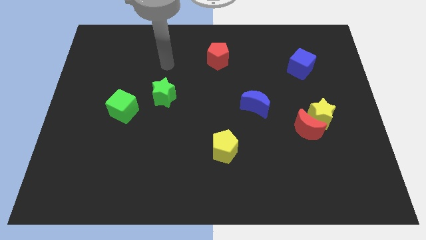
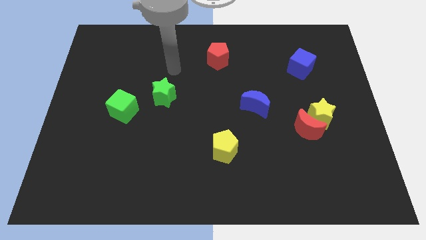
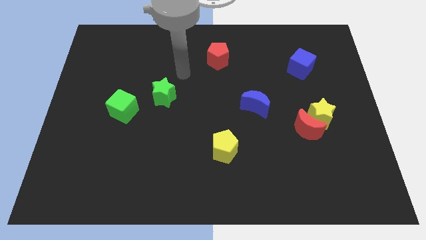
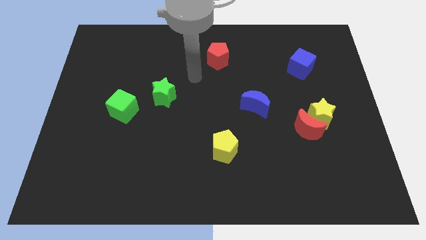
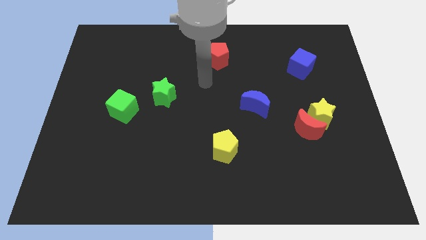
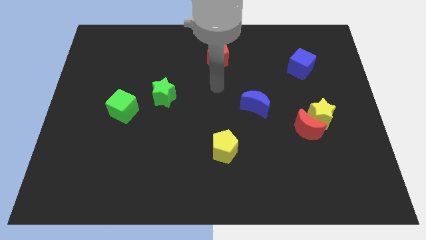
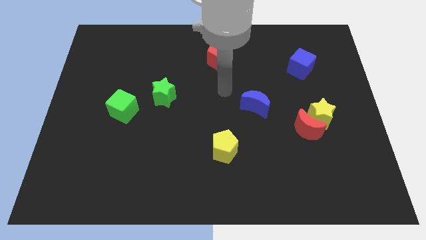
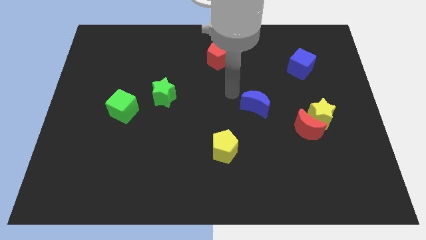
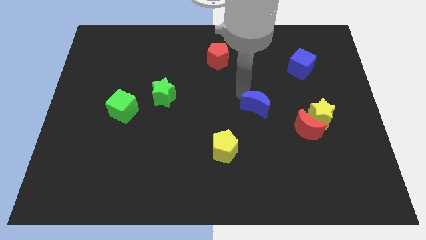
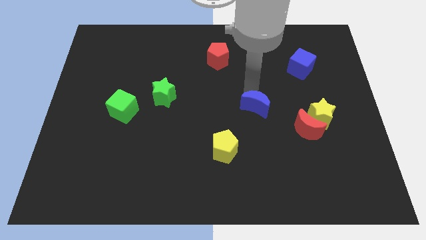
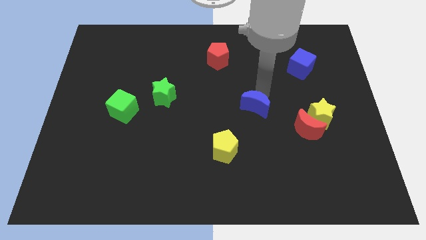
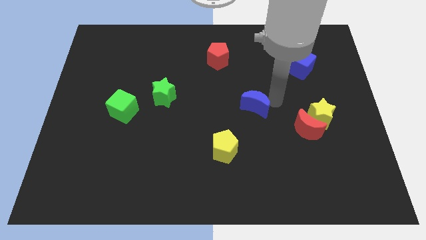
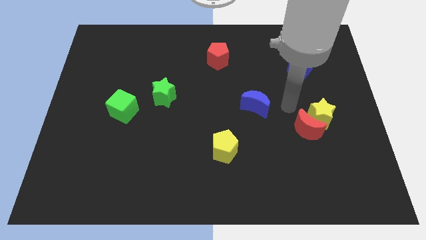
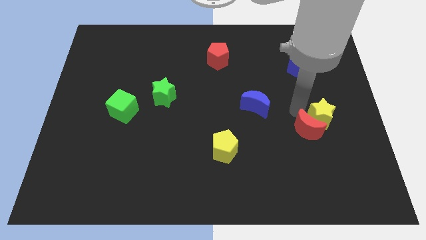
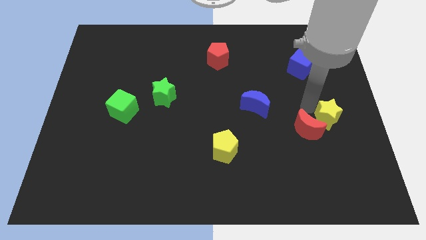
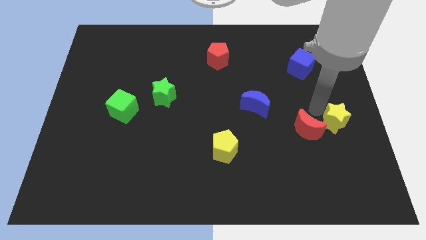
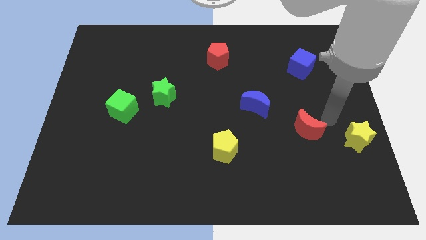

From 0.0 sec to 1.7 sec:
move the red moon away from the yellow star

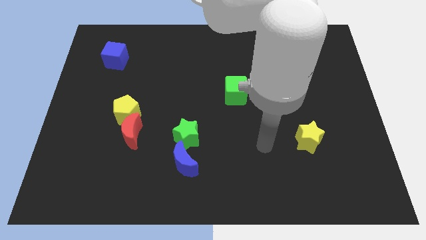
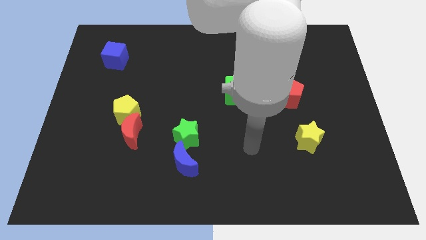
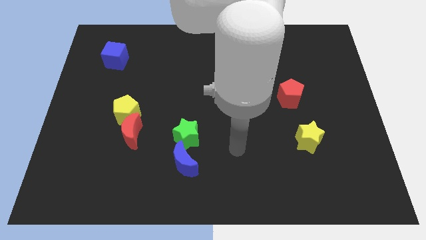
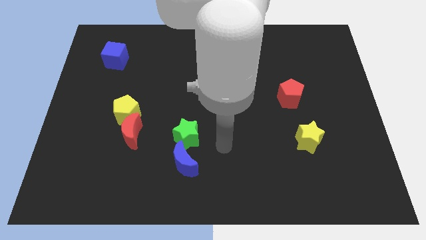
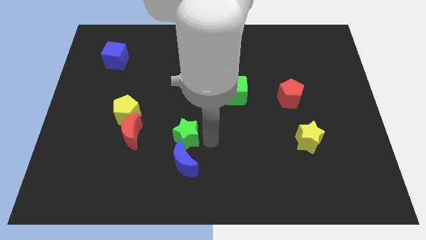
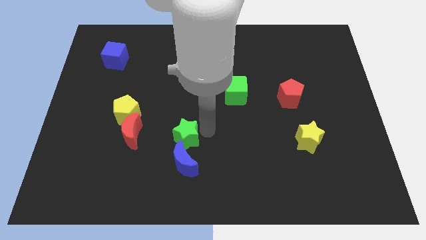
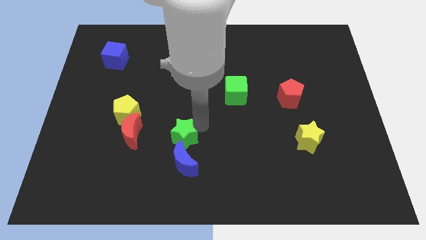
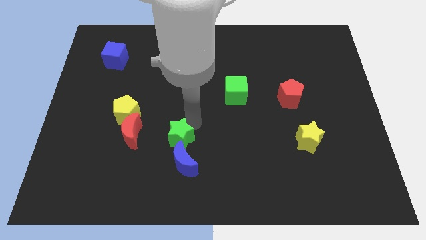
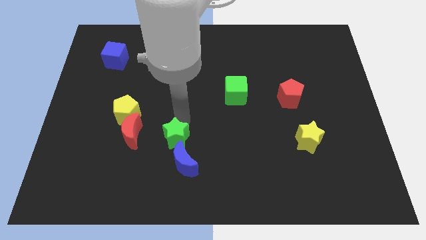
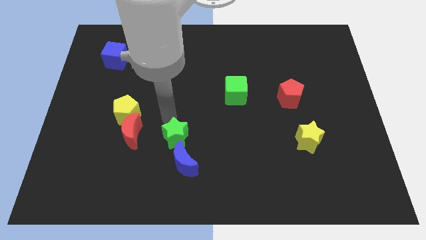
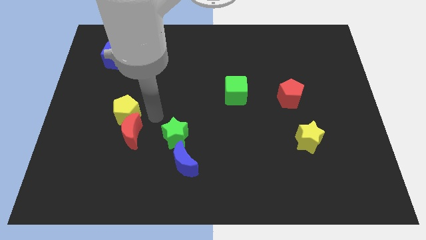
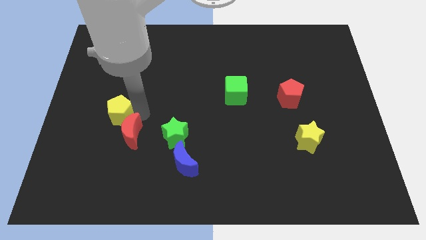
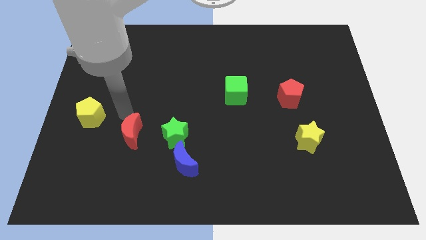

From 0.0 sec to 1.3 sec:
pull the red moon apart from the yellow pentagon

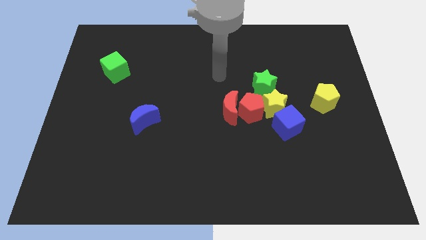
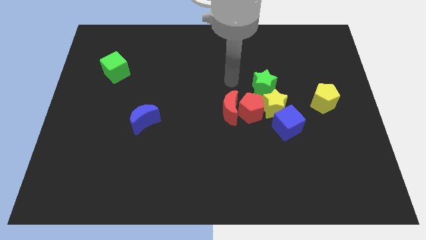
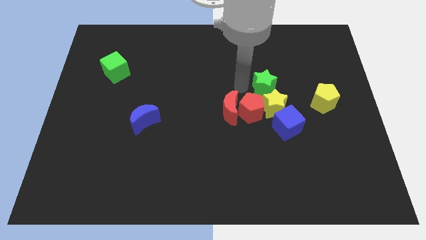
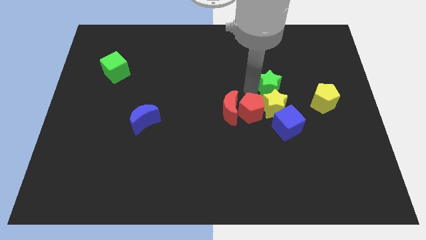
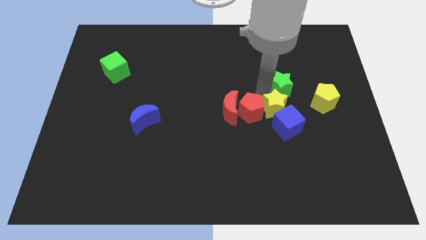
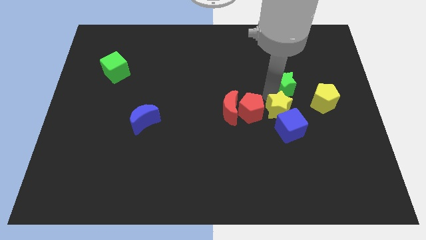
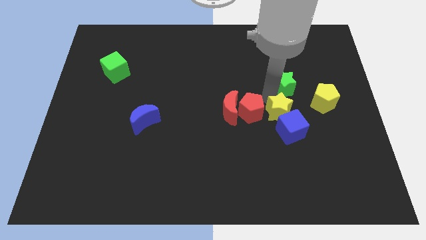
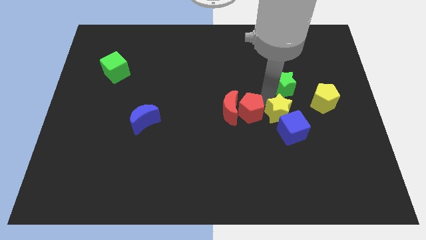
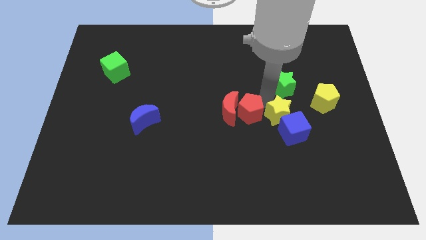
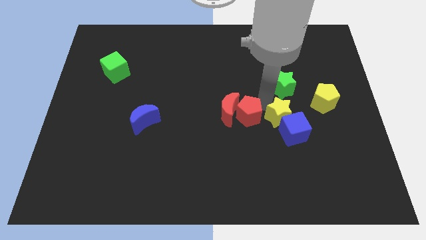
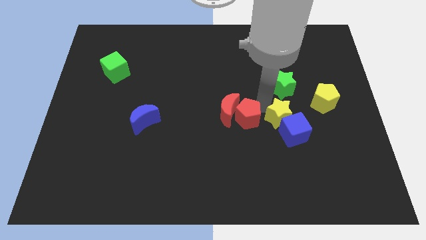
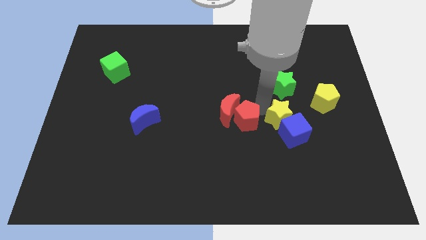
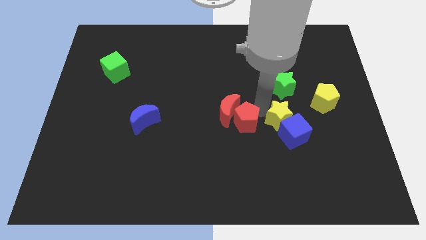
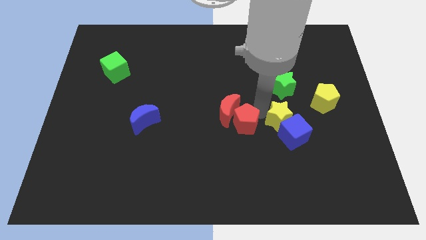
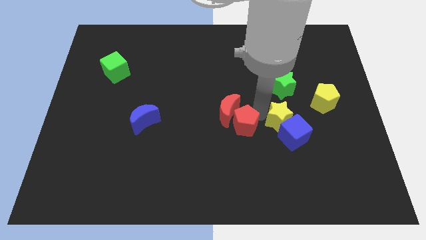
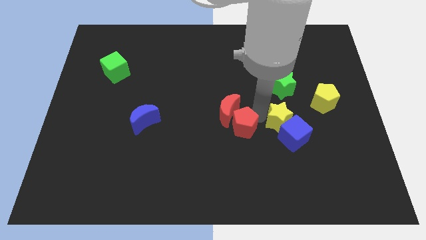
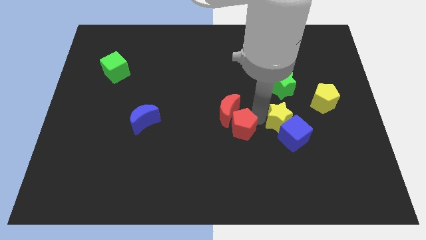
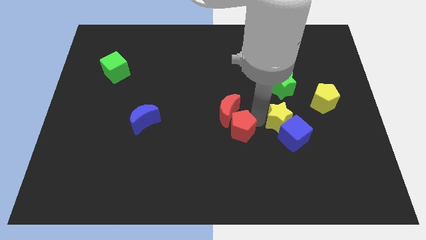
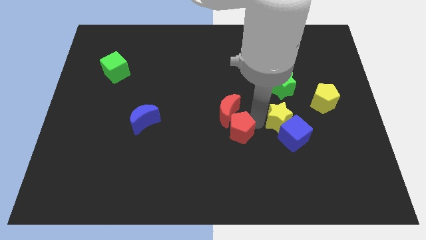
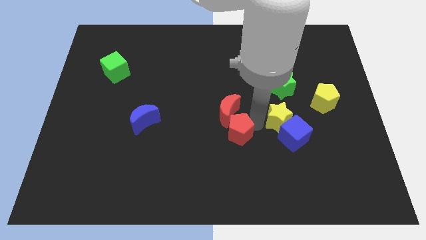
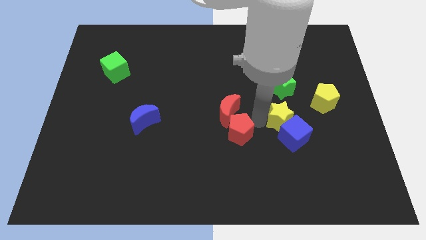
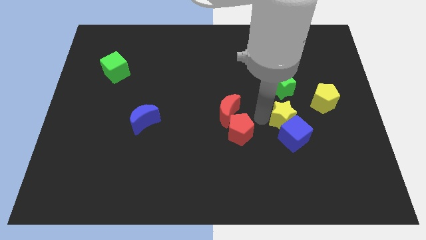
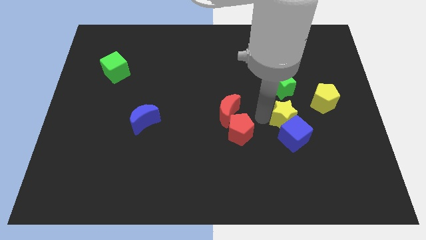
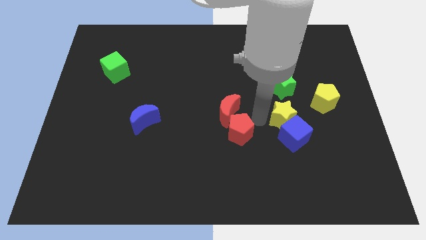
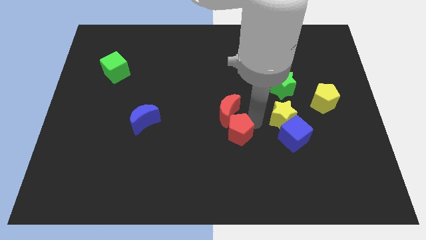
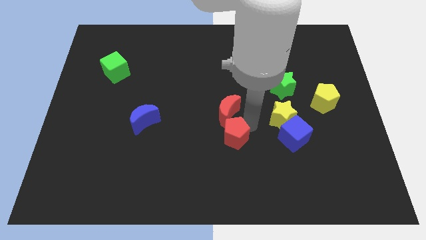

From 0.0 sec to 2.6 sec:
separate the red pentagon from the group

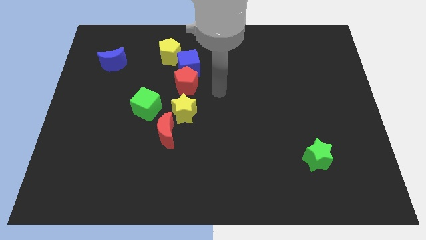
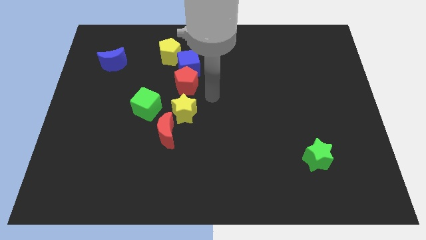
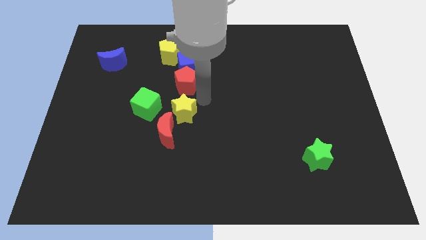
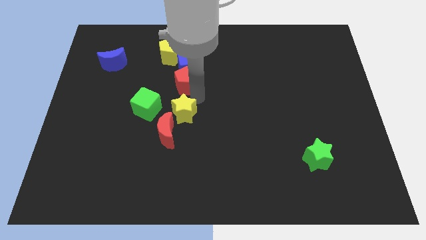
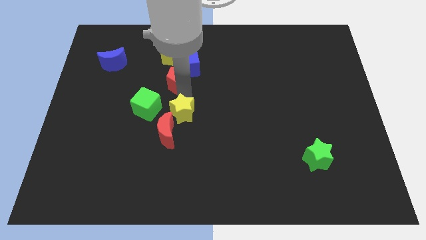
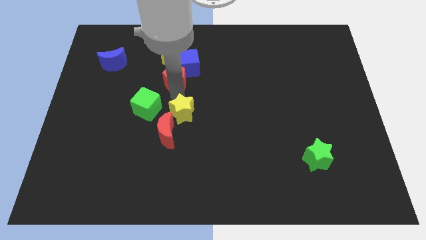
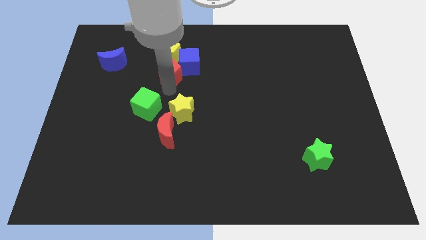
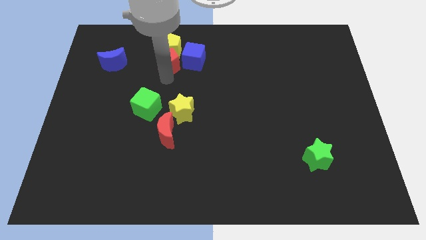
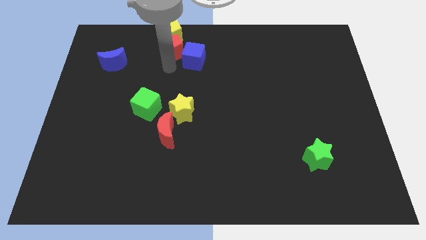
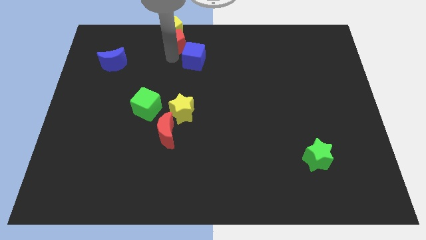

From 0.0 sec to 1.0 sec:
separate the blue cube from the red pentagon and yellow pentagon

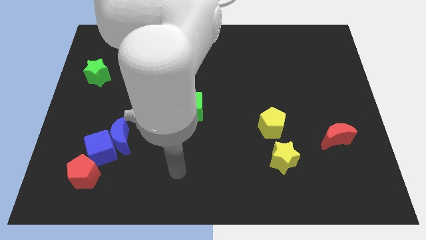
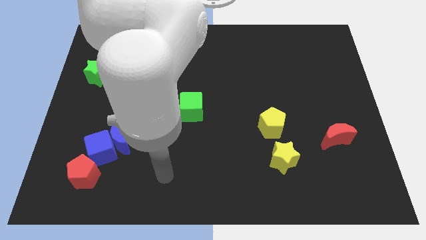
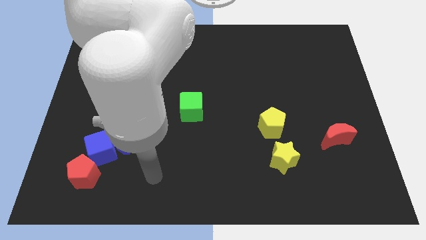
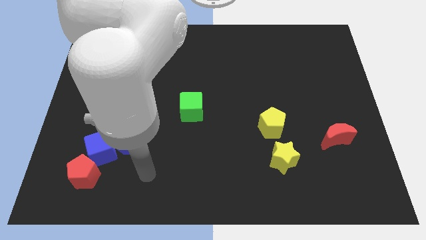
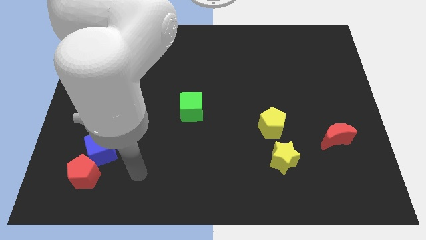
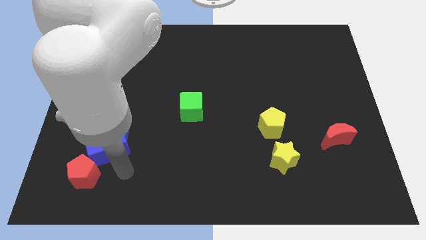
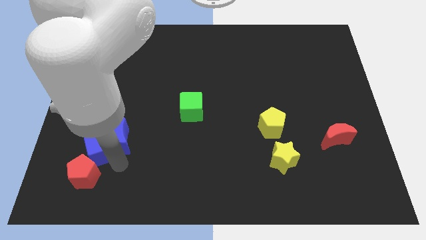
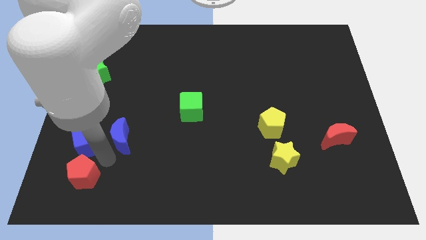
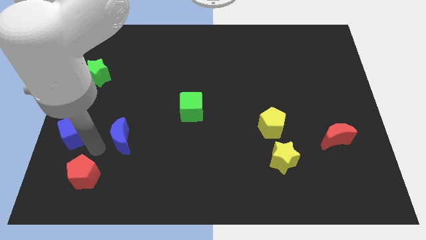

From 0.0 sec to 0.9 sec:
pull the blue moon apart from the blue cube

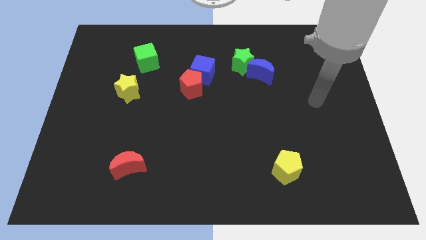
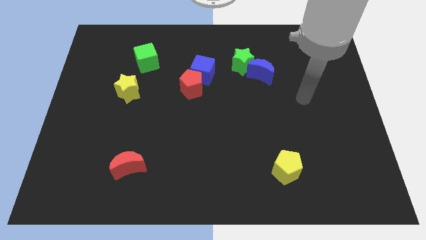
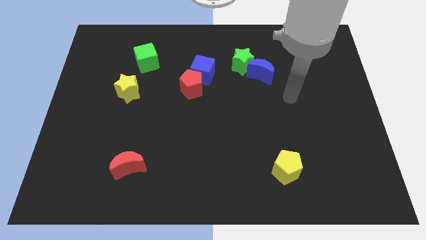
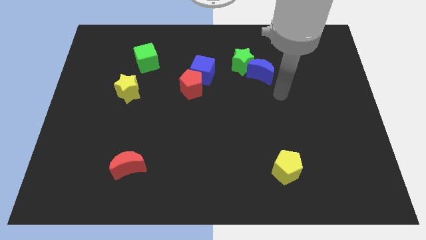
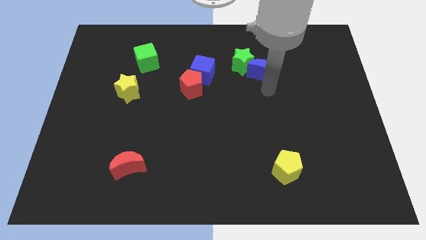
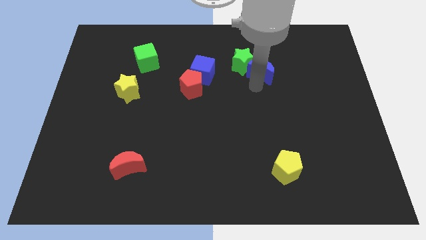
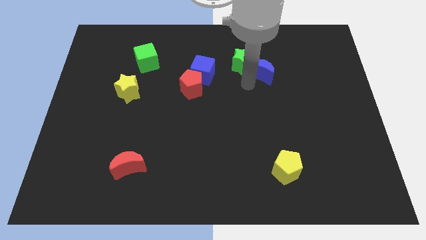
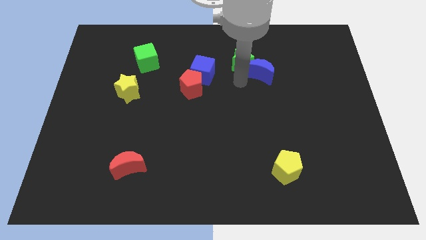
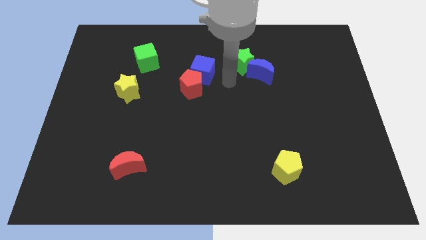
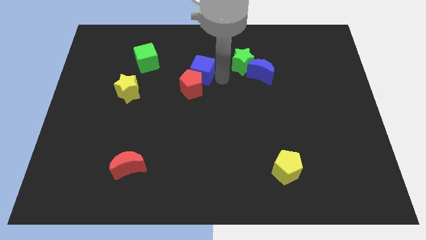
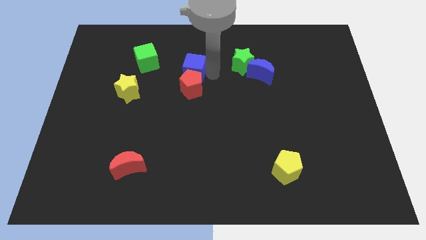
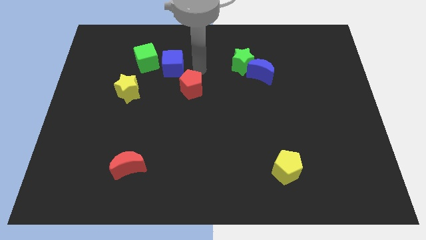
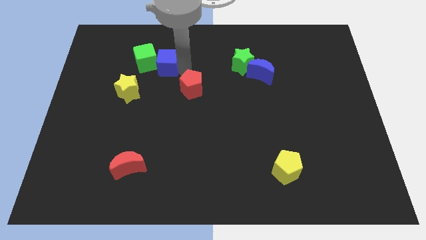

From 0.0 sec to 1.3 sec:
move the red pentagon away from the blue cube

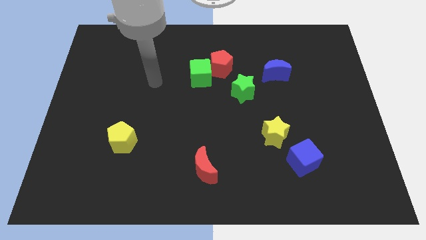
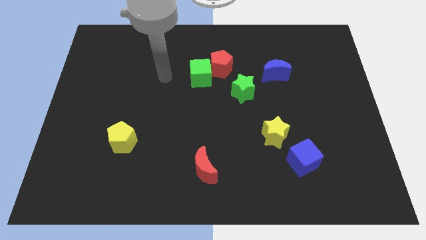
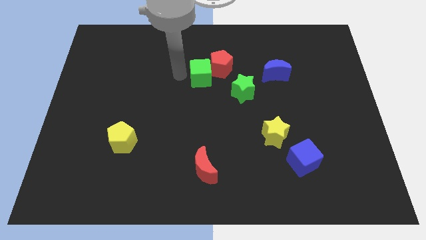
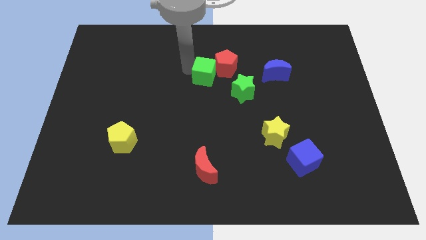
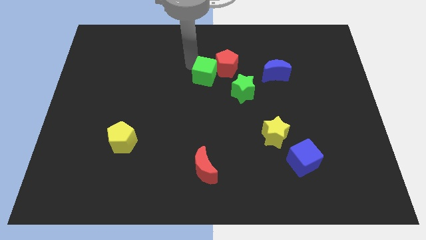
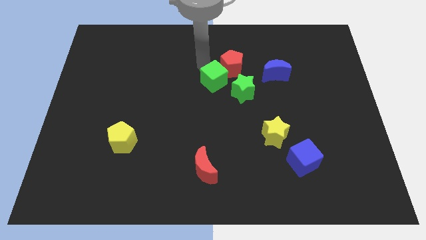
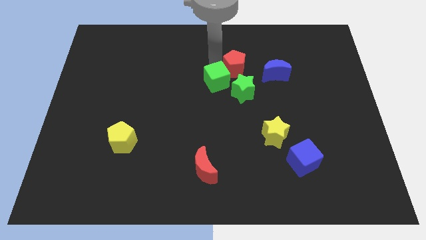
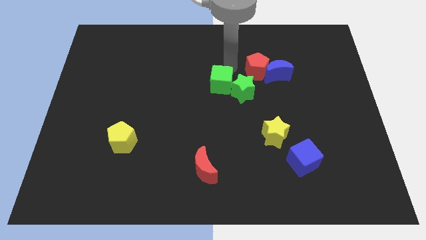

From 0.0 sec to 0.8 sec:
pull the green cube apart from the red pentagon
